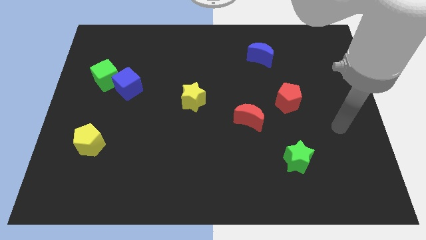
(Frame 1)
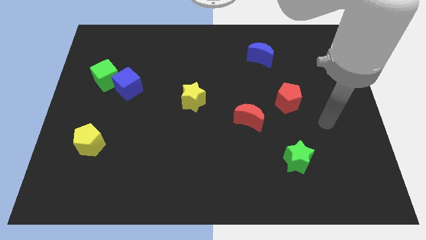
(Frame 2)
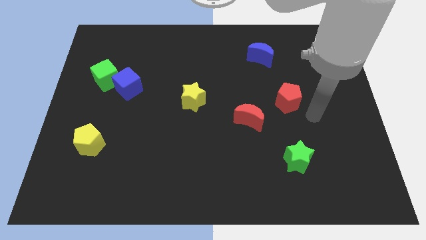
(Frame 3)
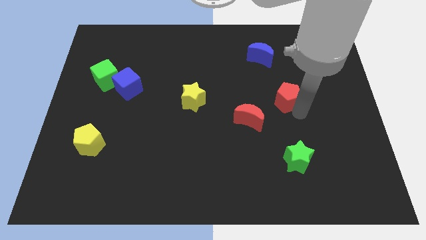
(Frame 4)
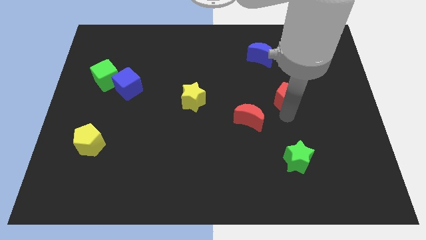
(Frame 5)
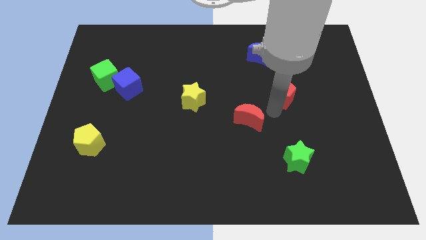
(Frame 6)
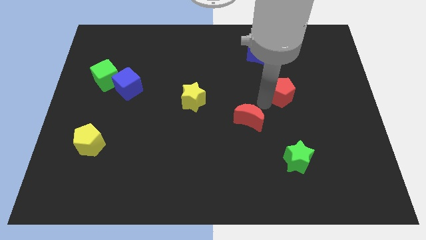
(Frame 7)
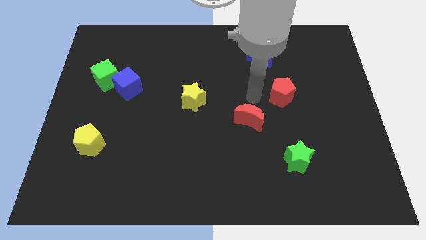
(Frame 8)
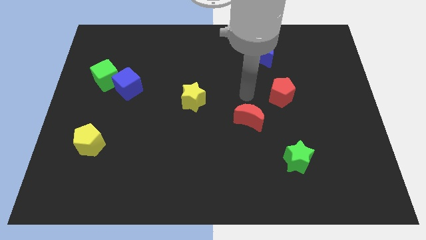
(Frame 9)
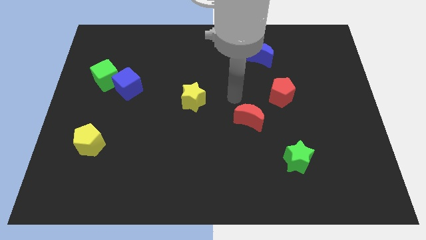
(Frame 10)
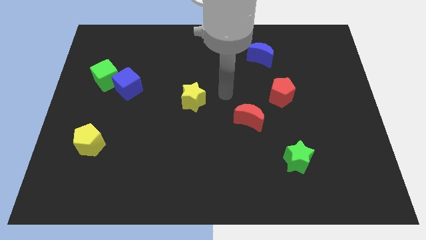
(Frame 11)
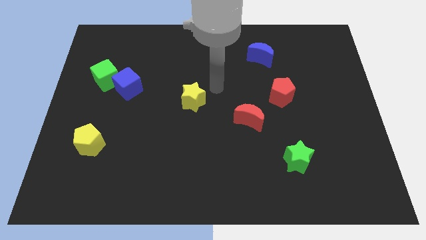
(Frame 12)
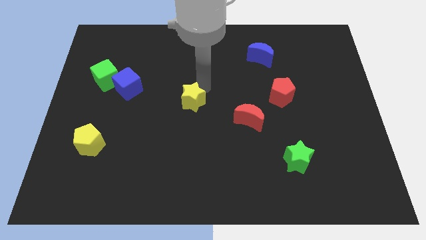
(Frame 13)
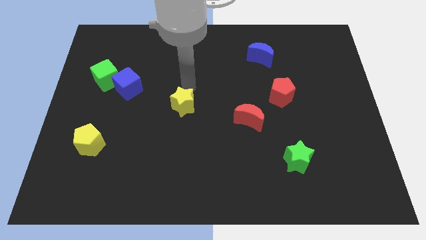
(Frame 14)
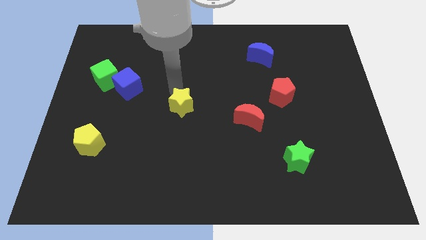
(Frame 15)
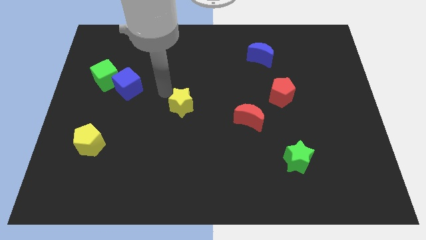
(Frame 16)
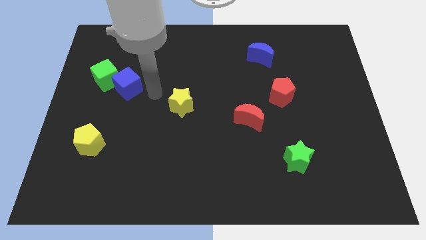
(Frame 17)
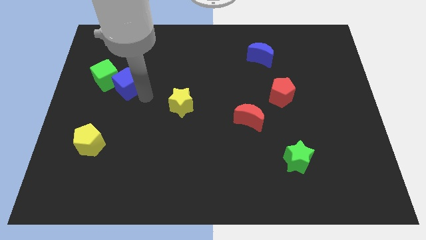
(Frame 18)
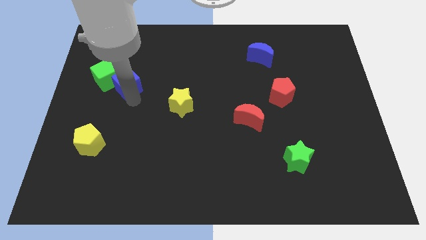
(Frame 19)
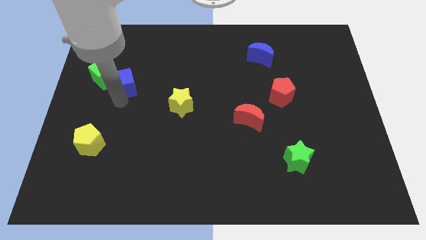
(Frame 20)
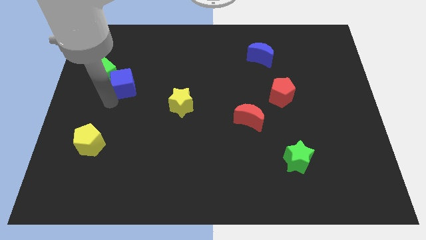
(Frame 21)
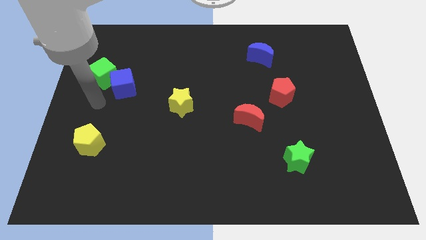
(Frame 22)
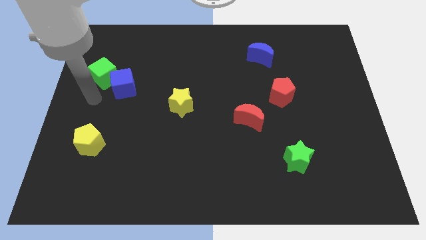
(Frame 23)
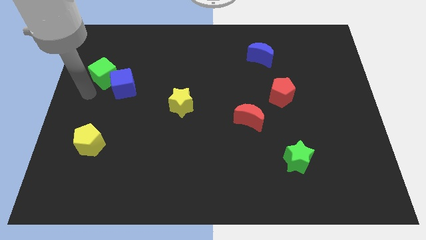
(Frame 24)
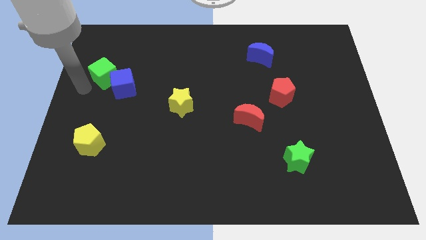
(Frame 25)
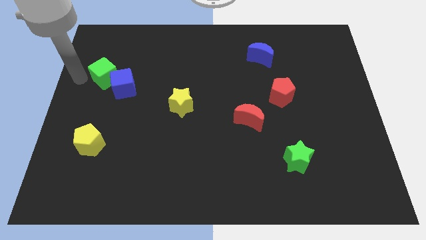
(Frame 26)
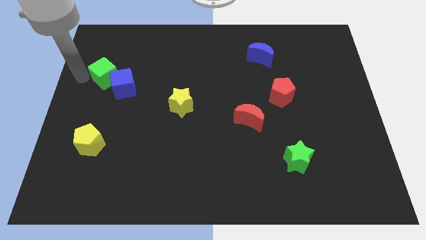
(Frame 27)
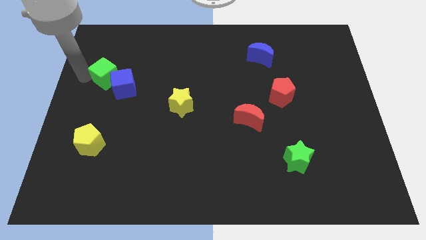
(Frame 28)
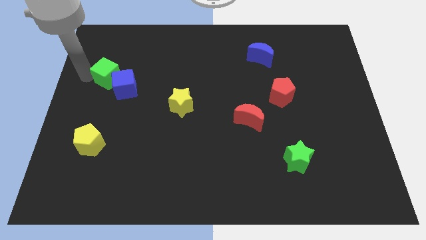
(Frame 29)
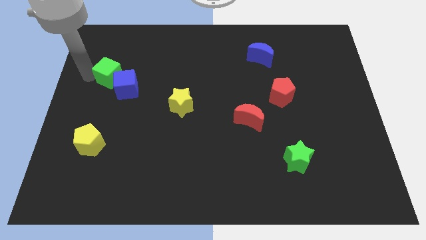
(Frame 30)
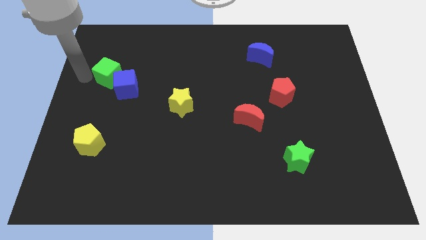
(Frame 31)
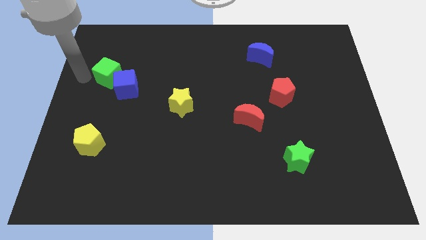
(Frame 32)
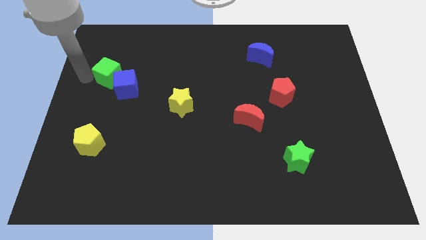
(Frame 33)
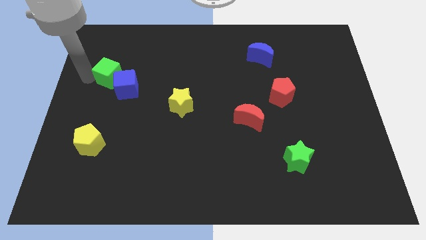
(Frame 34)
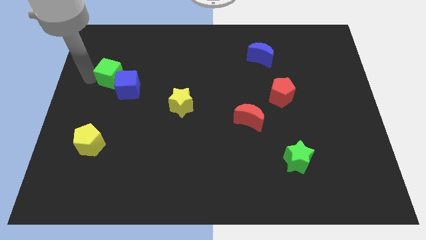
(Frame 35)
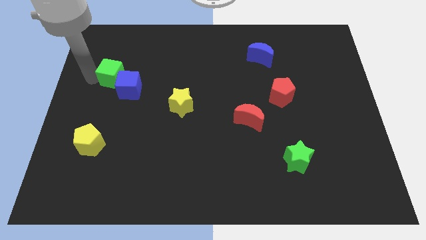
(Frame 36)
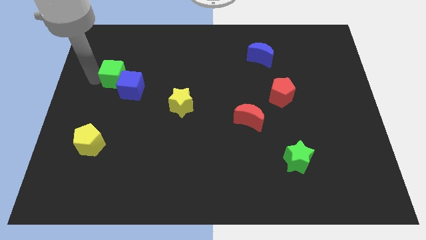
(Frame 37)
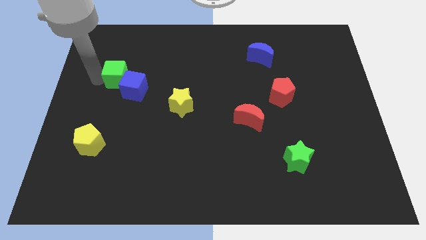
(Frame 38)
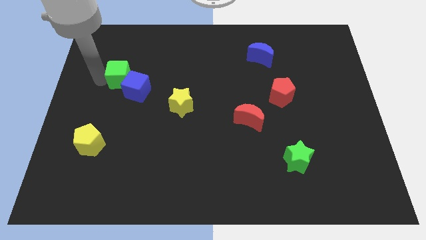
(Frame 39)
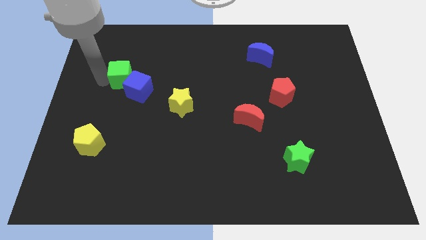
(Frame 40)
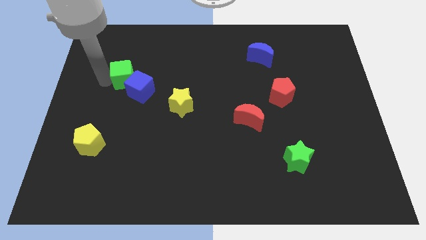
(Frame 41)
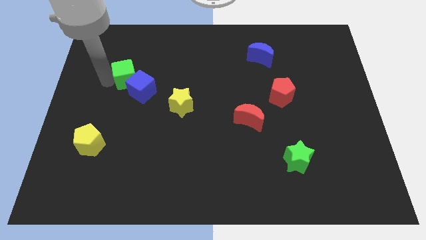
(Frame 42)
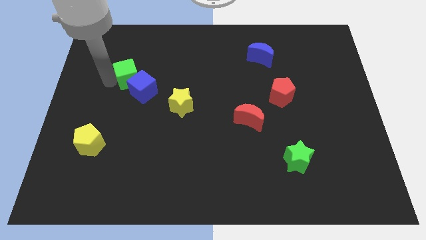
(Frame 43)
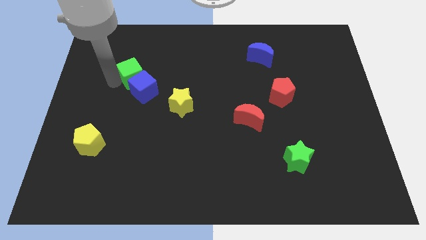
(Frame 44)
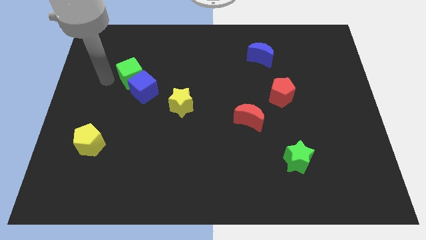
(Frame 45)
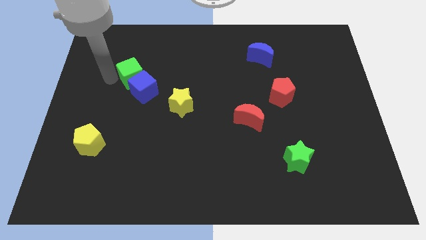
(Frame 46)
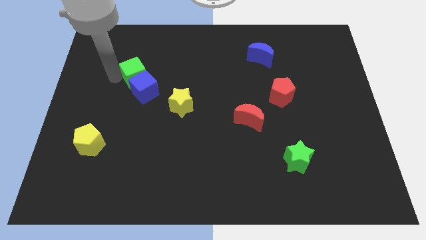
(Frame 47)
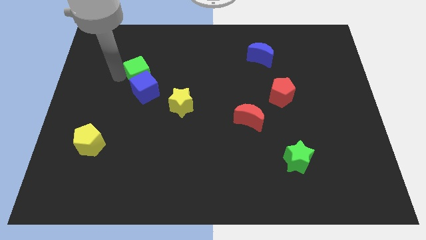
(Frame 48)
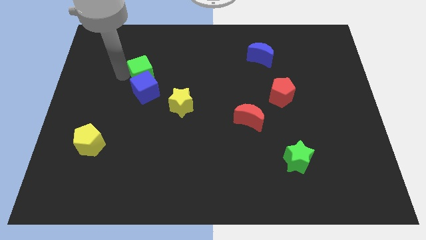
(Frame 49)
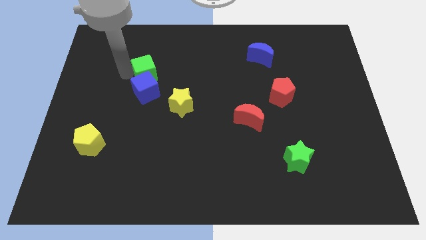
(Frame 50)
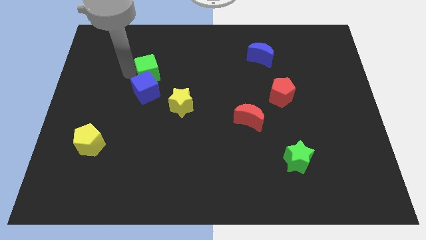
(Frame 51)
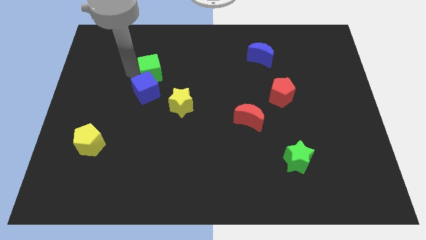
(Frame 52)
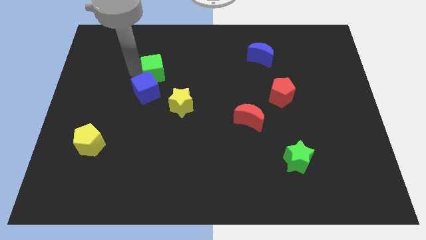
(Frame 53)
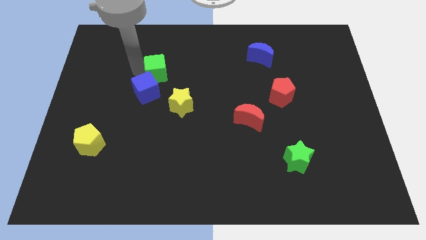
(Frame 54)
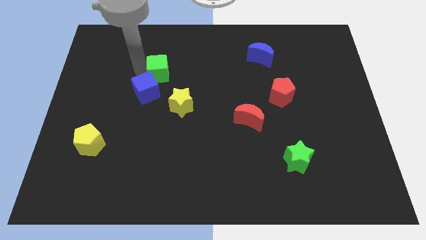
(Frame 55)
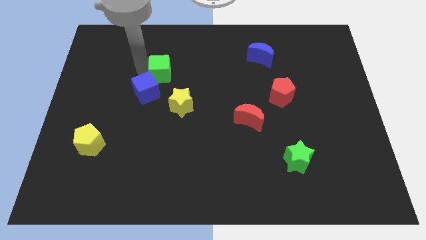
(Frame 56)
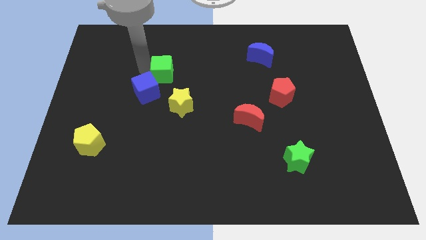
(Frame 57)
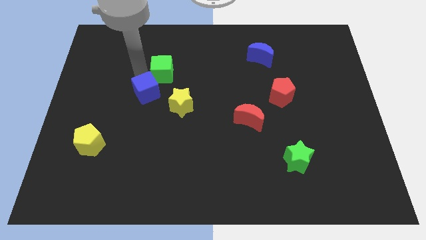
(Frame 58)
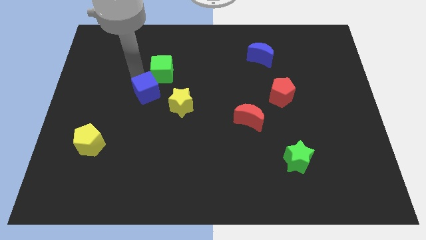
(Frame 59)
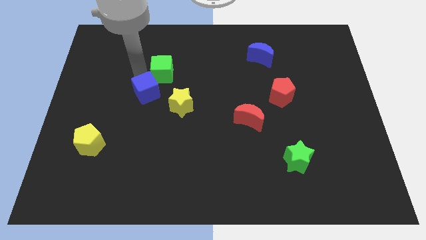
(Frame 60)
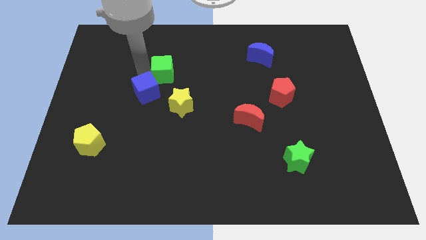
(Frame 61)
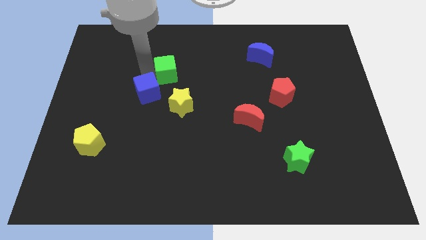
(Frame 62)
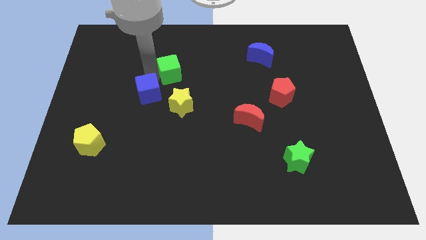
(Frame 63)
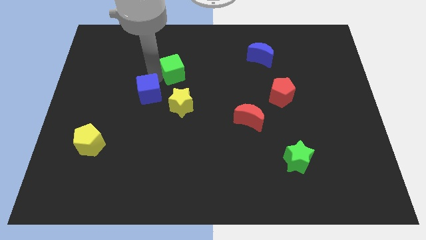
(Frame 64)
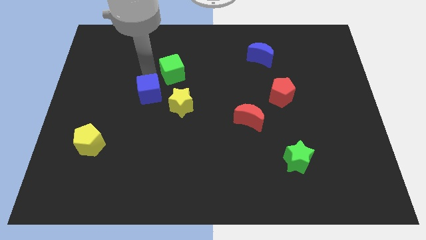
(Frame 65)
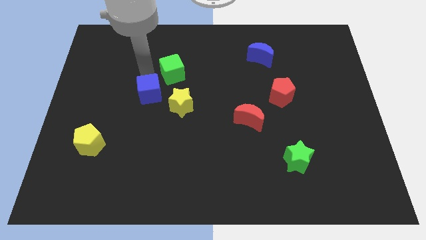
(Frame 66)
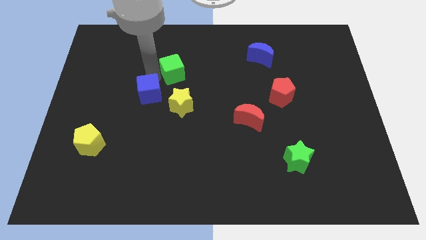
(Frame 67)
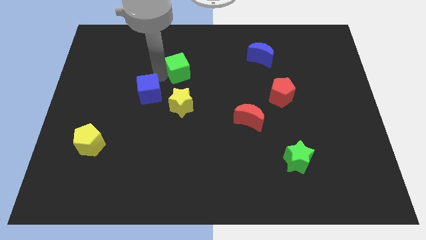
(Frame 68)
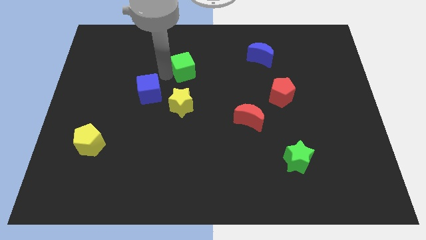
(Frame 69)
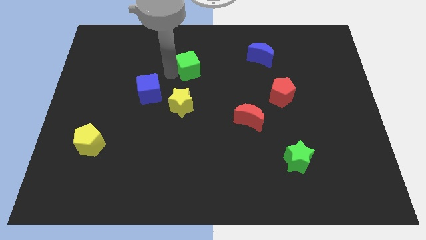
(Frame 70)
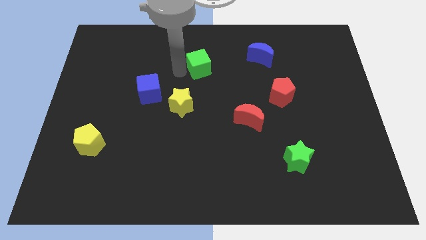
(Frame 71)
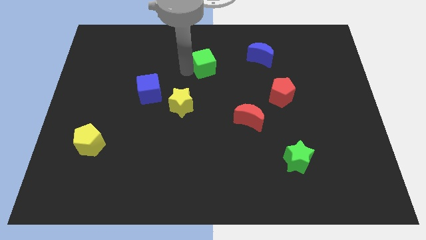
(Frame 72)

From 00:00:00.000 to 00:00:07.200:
move the green cube left of the blue moon

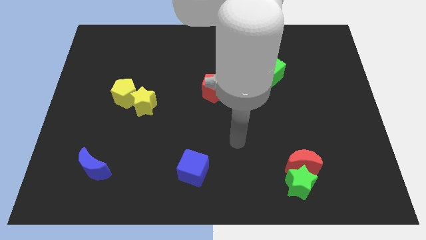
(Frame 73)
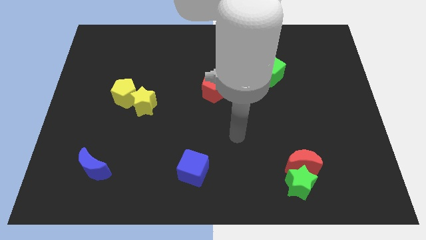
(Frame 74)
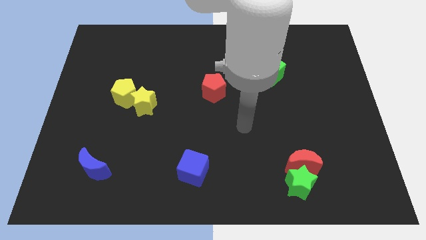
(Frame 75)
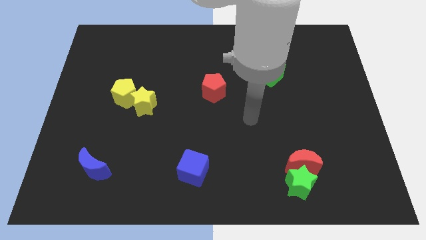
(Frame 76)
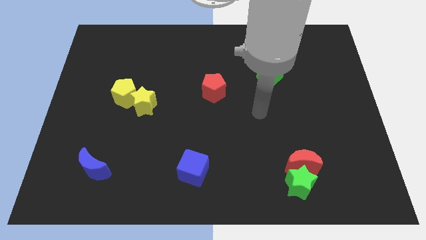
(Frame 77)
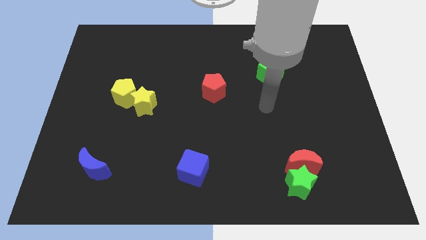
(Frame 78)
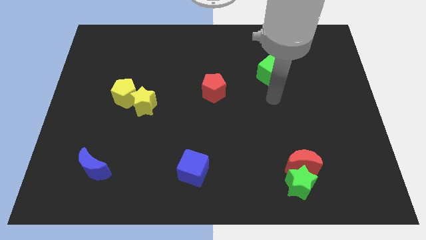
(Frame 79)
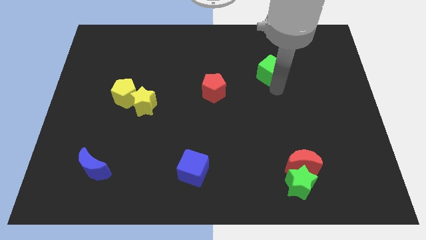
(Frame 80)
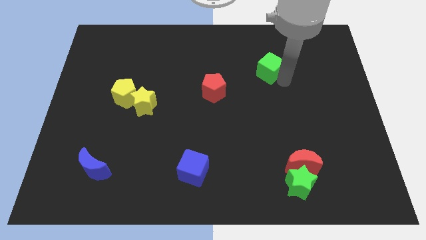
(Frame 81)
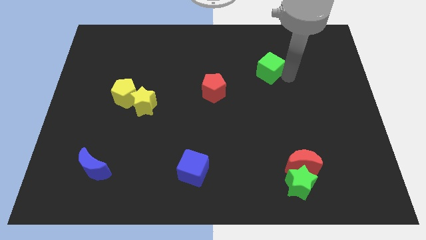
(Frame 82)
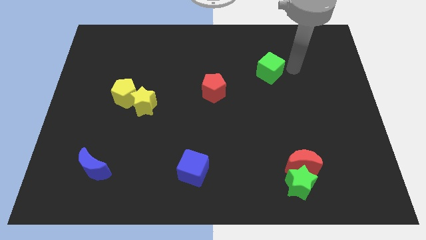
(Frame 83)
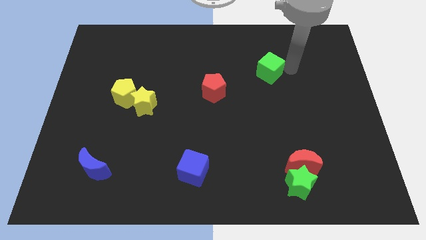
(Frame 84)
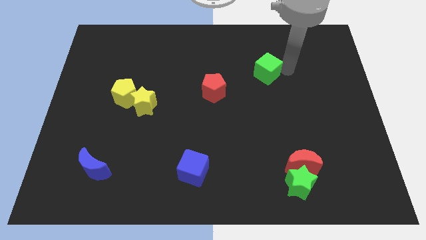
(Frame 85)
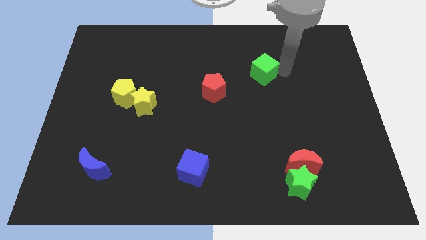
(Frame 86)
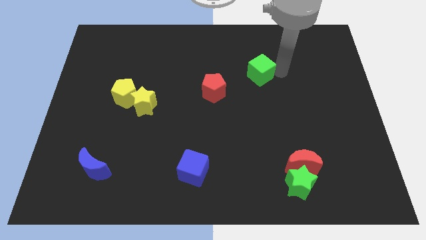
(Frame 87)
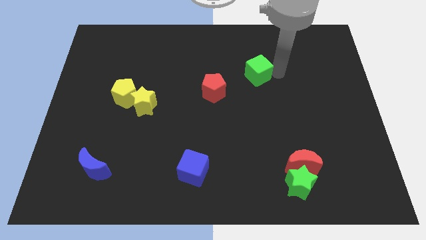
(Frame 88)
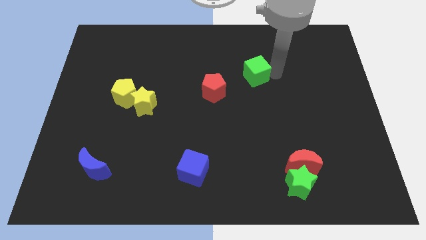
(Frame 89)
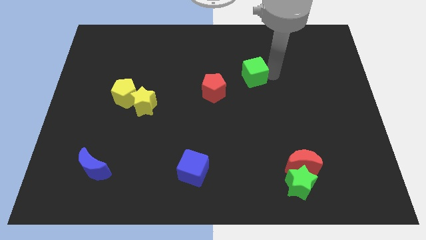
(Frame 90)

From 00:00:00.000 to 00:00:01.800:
push the green cube to the top right side of the red pentagon
